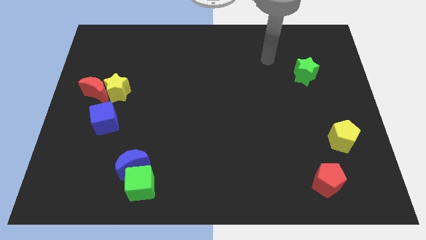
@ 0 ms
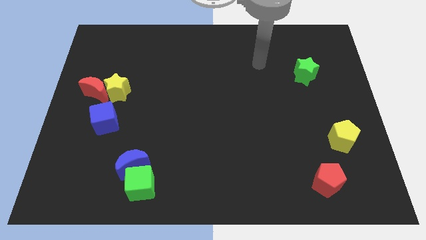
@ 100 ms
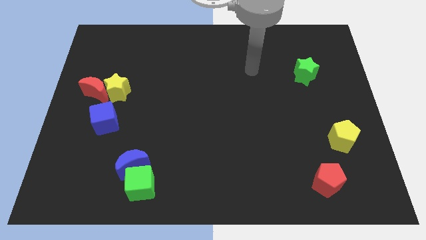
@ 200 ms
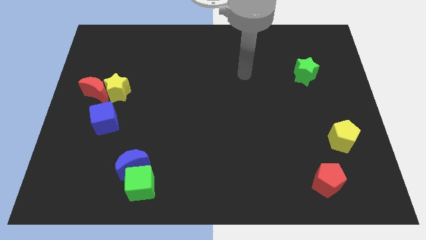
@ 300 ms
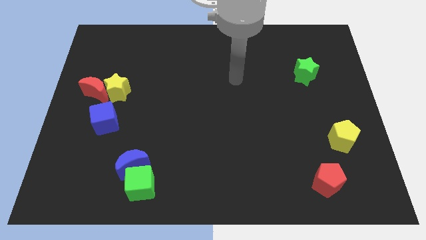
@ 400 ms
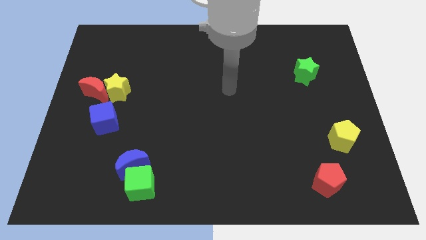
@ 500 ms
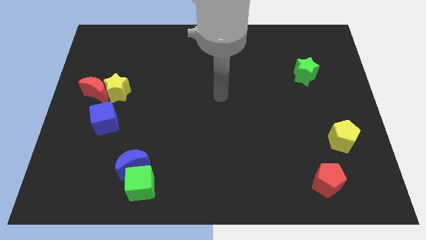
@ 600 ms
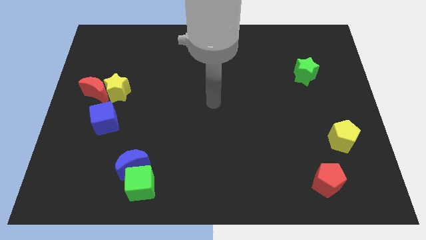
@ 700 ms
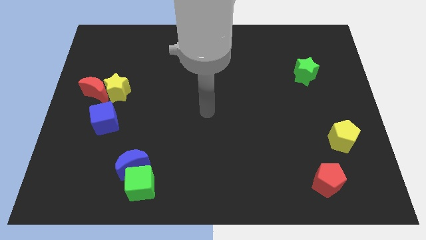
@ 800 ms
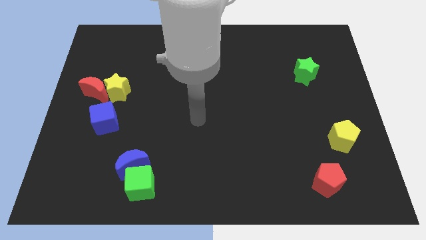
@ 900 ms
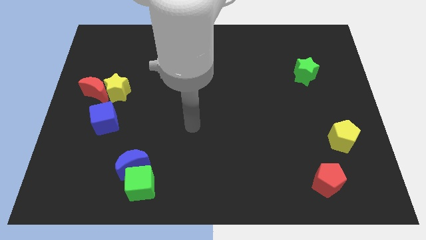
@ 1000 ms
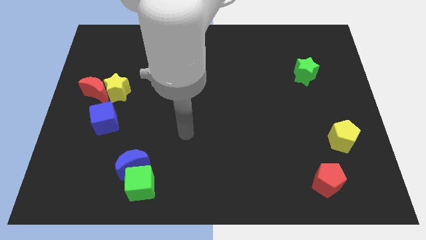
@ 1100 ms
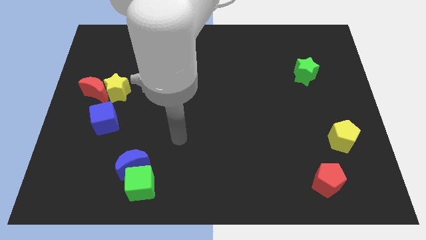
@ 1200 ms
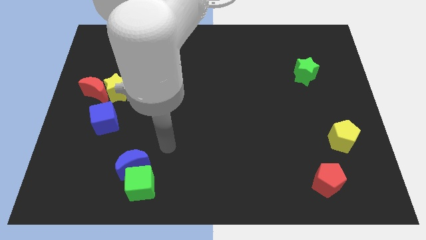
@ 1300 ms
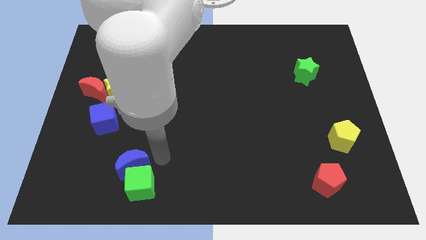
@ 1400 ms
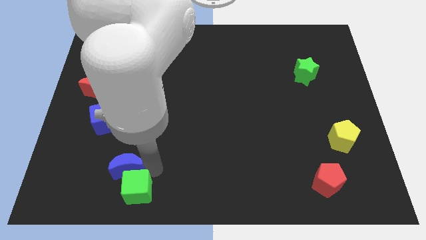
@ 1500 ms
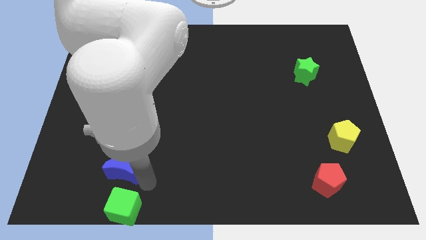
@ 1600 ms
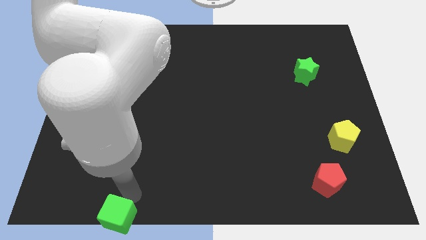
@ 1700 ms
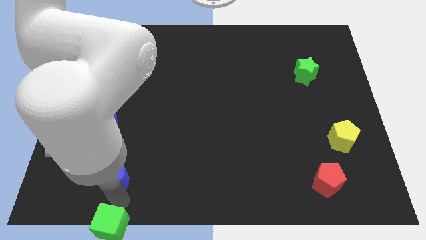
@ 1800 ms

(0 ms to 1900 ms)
separate the blue moon from the green cube

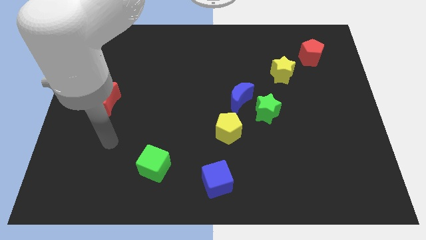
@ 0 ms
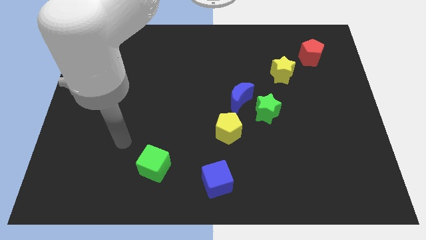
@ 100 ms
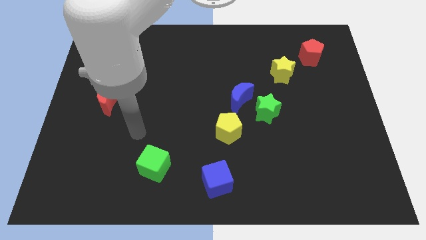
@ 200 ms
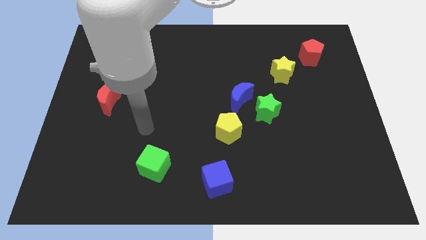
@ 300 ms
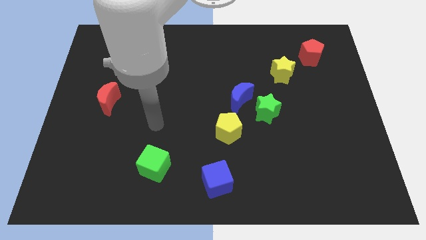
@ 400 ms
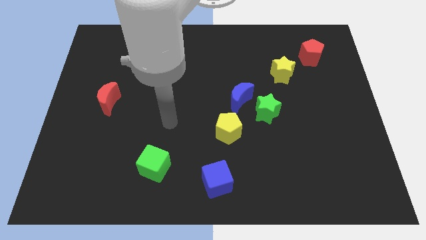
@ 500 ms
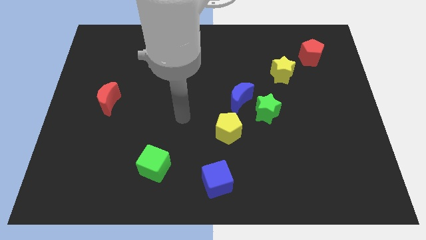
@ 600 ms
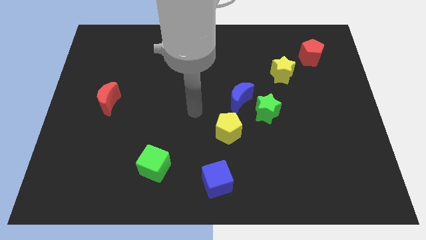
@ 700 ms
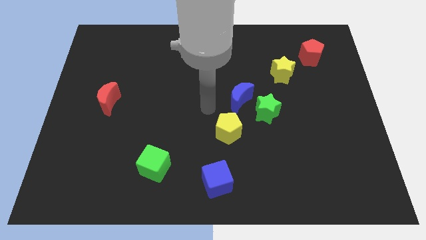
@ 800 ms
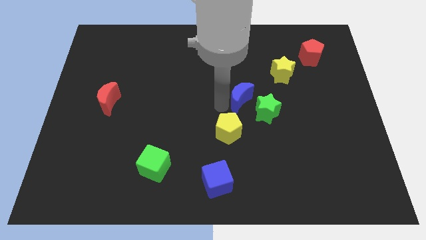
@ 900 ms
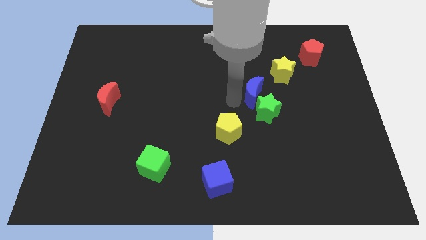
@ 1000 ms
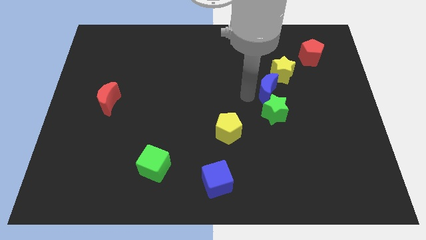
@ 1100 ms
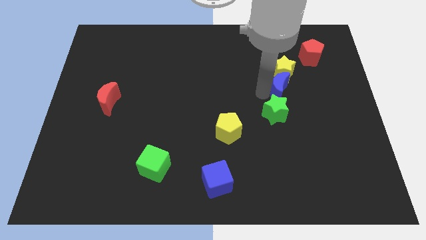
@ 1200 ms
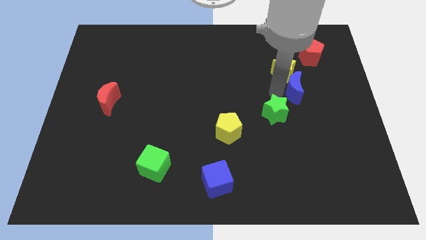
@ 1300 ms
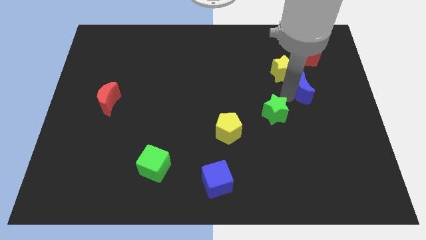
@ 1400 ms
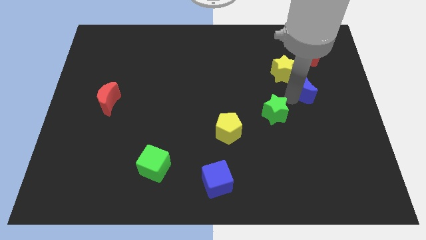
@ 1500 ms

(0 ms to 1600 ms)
pull the green star apart from the blue moon

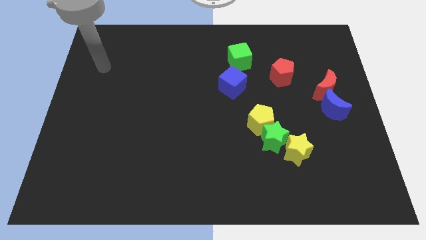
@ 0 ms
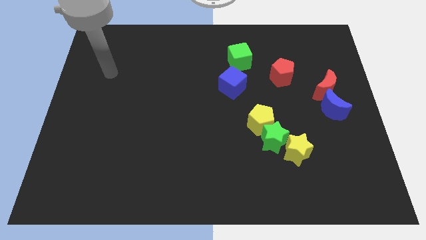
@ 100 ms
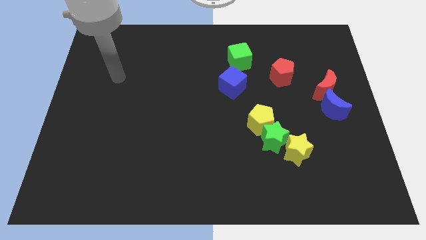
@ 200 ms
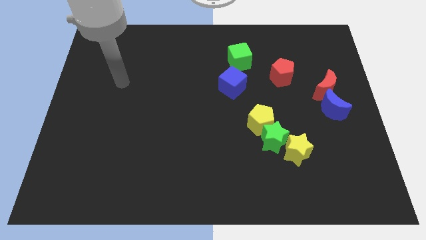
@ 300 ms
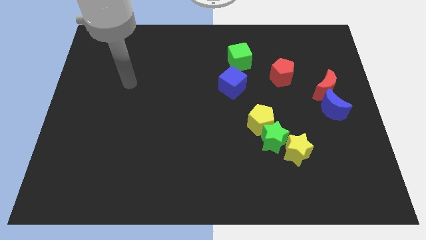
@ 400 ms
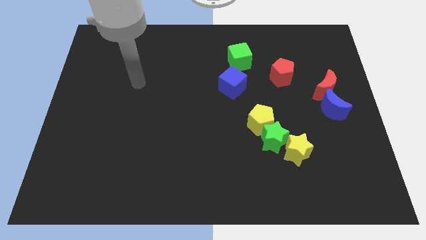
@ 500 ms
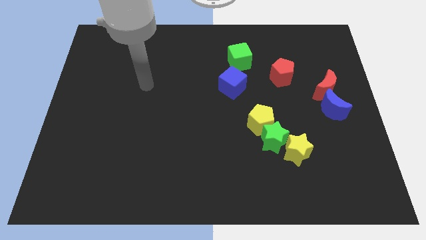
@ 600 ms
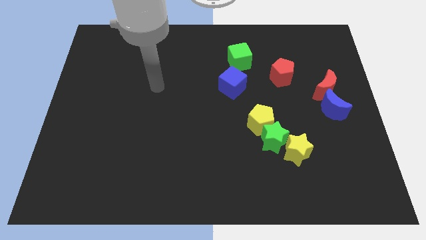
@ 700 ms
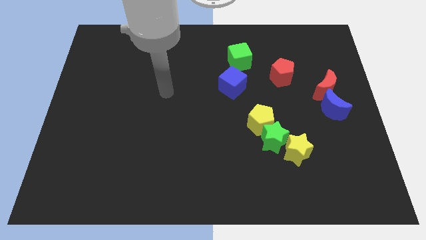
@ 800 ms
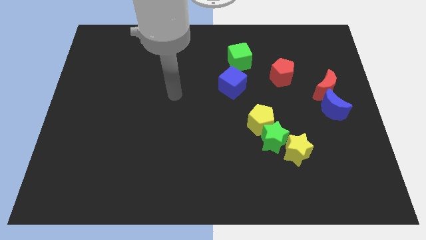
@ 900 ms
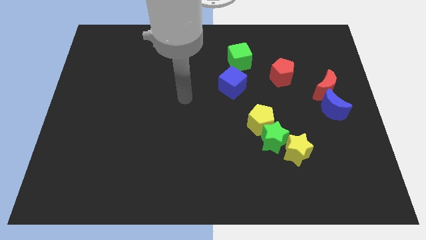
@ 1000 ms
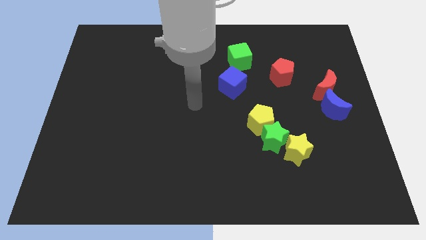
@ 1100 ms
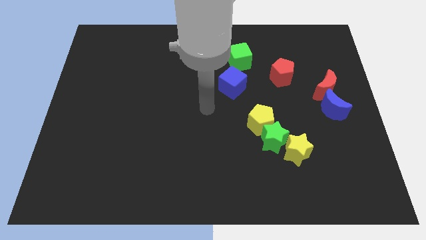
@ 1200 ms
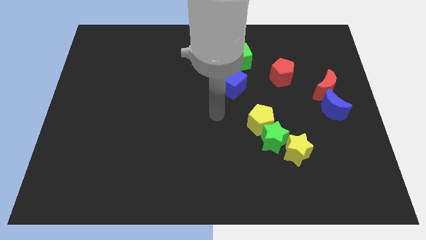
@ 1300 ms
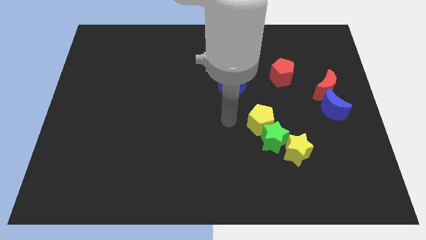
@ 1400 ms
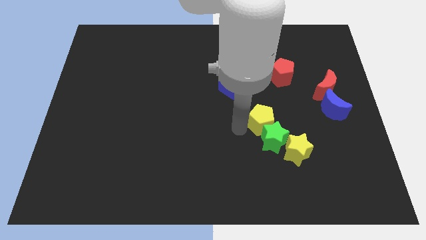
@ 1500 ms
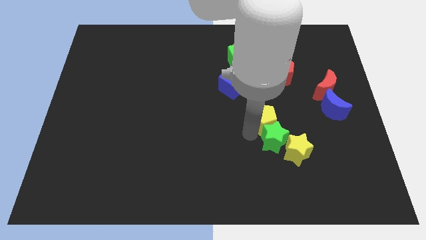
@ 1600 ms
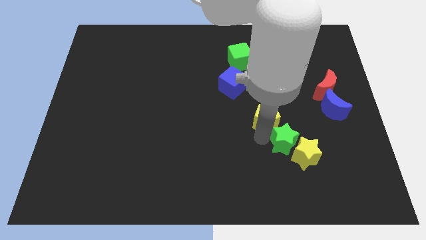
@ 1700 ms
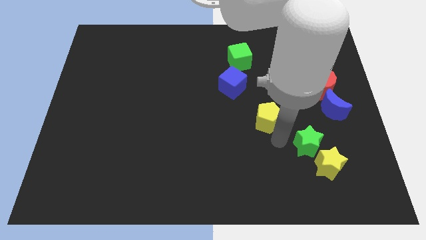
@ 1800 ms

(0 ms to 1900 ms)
separate the yellow pentagon from the green star

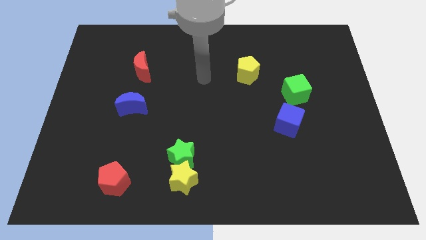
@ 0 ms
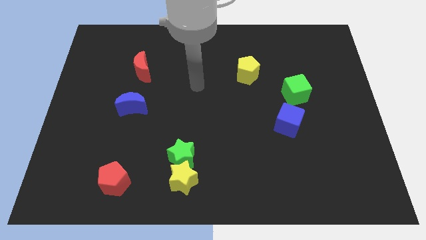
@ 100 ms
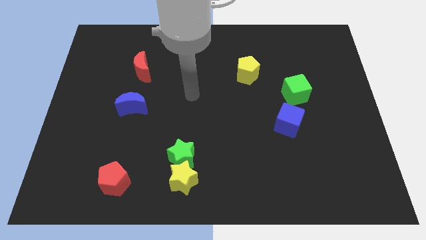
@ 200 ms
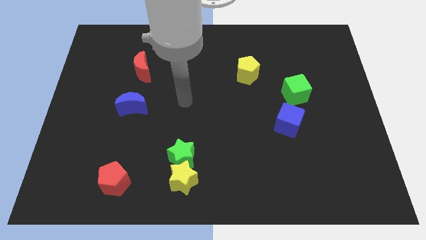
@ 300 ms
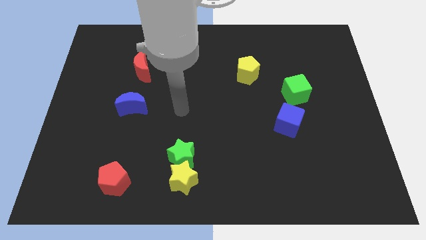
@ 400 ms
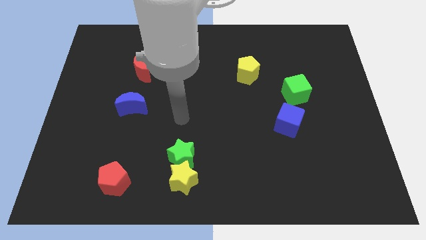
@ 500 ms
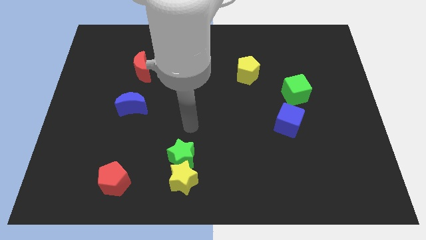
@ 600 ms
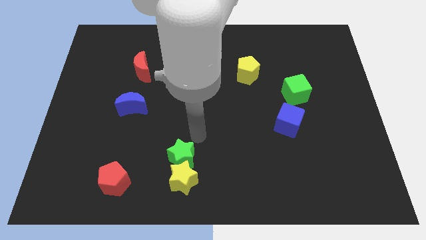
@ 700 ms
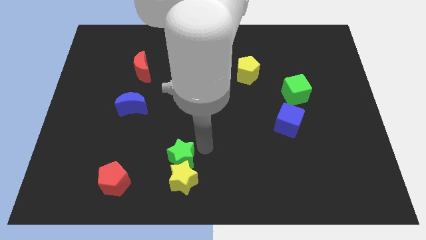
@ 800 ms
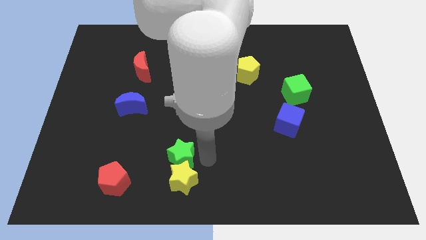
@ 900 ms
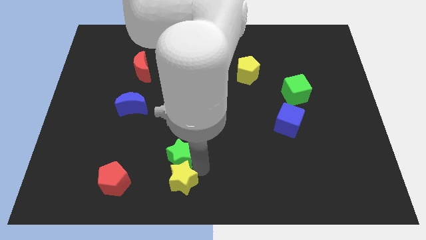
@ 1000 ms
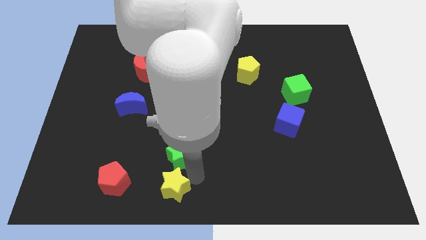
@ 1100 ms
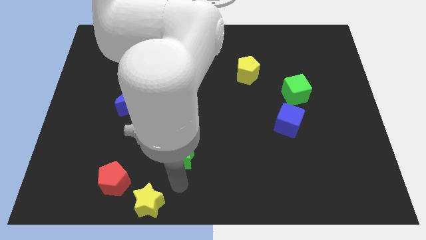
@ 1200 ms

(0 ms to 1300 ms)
pull the green star apart from the yellow star

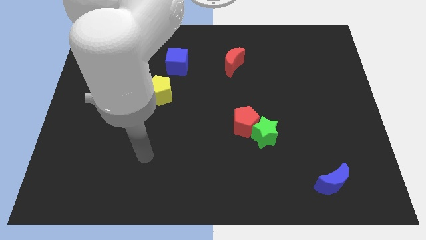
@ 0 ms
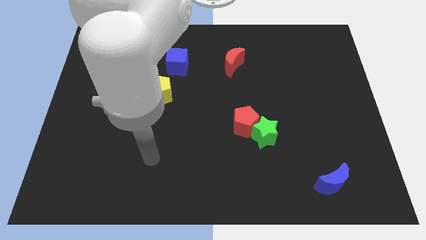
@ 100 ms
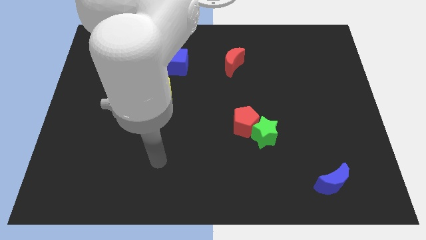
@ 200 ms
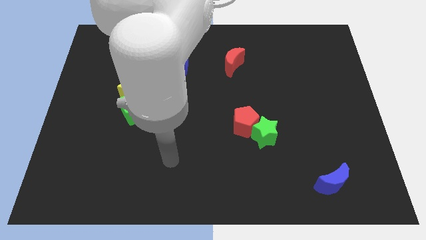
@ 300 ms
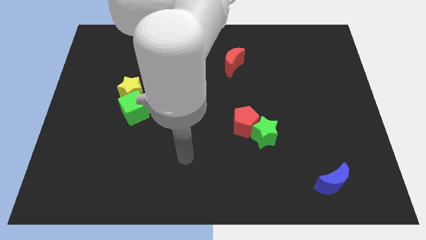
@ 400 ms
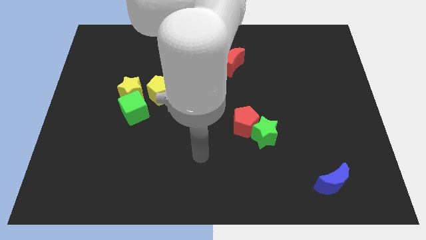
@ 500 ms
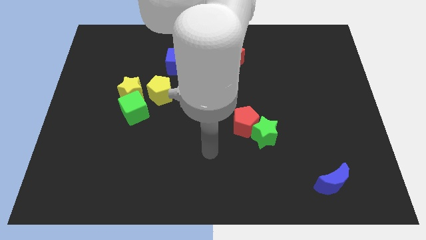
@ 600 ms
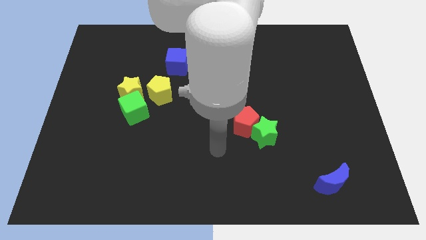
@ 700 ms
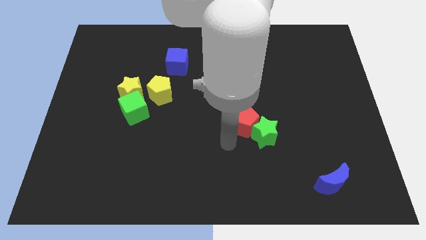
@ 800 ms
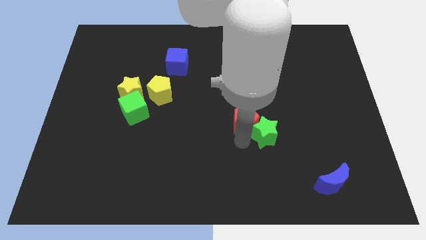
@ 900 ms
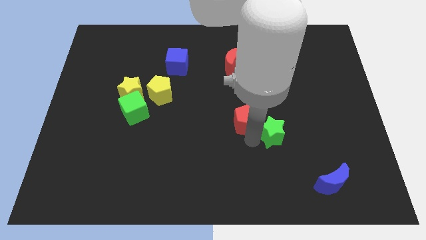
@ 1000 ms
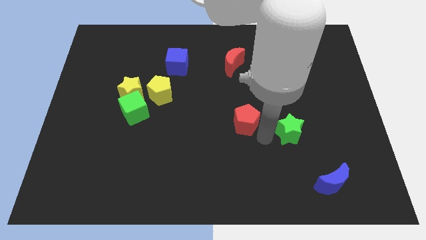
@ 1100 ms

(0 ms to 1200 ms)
separate the red pentagon from the green star

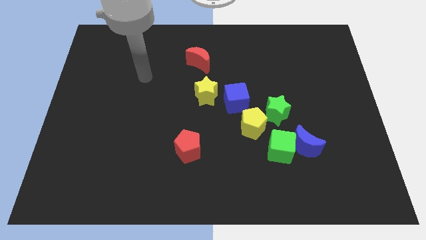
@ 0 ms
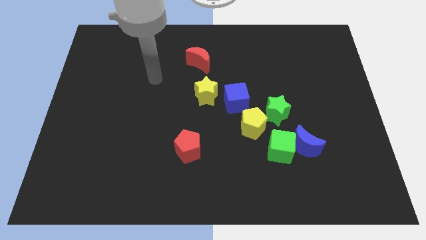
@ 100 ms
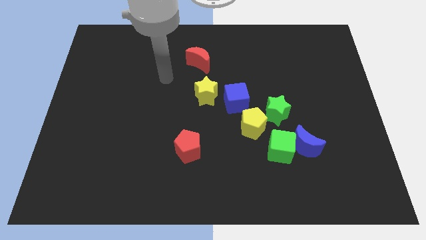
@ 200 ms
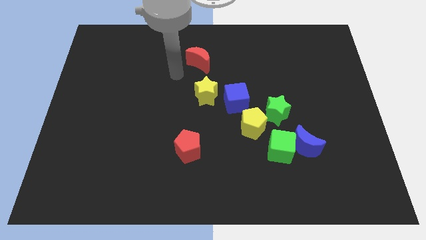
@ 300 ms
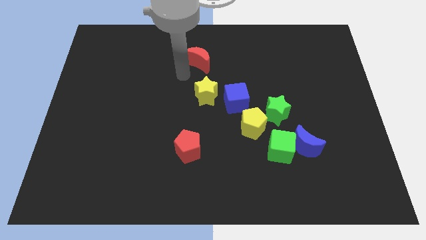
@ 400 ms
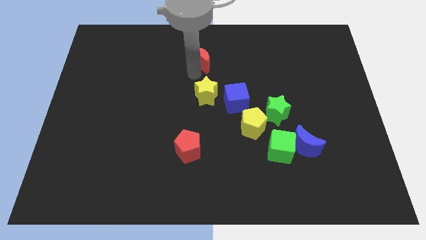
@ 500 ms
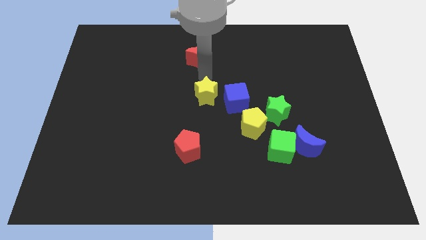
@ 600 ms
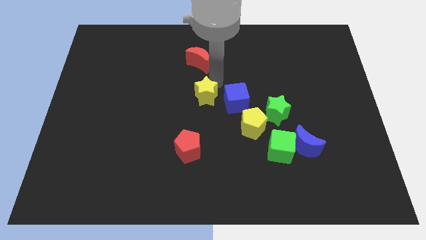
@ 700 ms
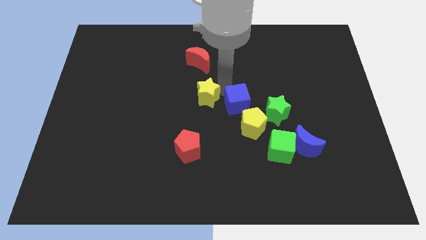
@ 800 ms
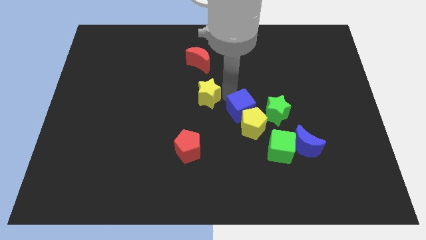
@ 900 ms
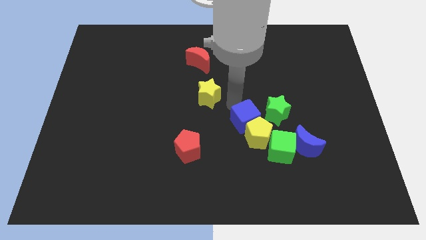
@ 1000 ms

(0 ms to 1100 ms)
separate the yellow star from the blue cube

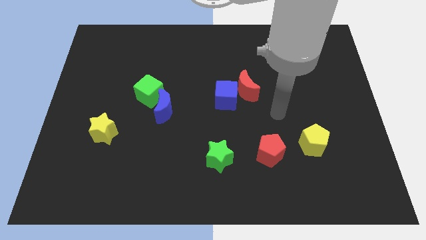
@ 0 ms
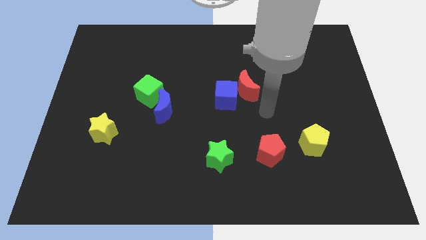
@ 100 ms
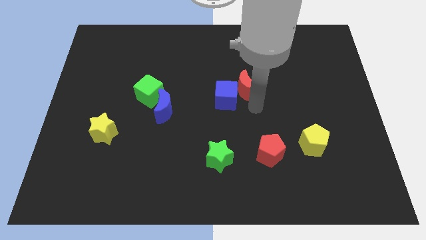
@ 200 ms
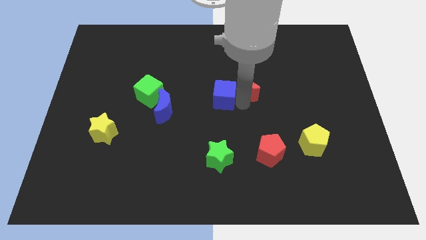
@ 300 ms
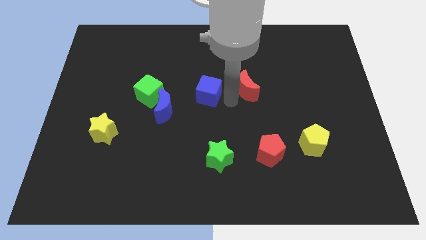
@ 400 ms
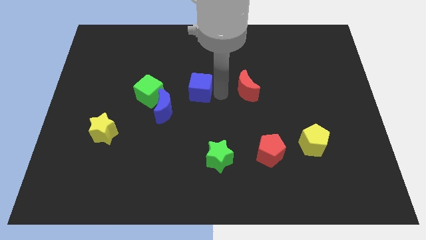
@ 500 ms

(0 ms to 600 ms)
separate the red moon from the blue cube
